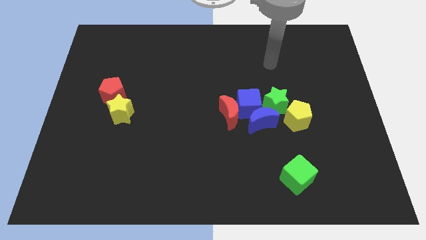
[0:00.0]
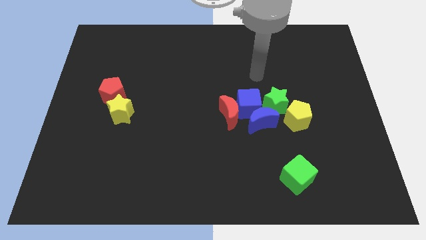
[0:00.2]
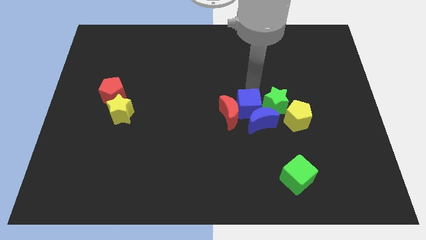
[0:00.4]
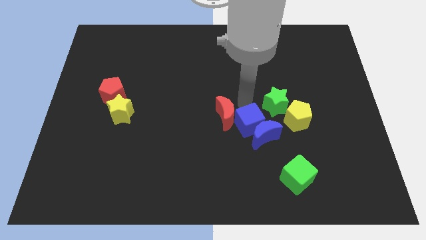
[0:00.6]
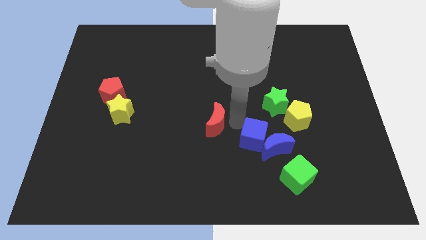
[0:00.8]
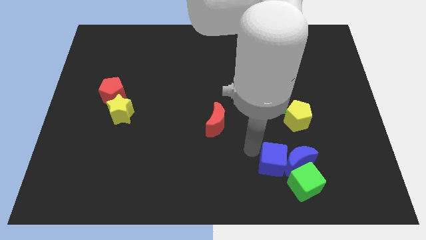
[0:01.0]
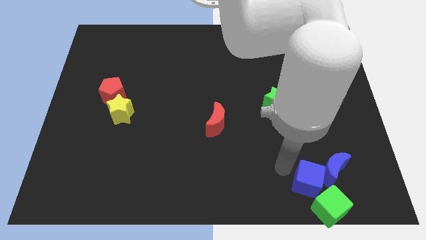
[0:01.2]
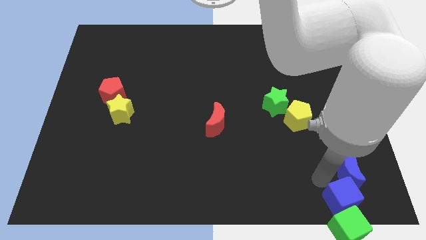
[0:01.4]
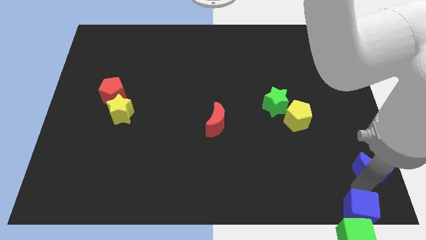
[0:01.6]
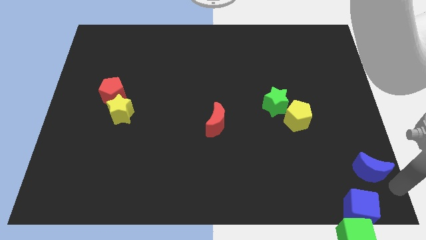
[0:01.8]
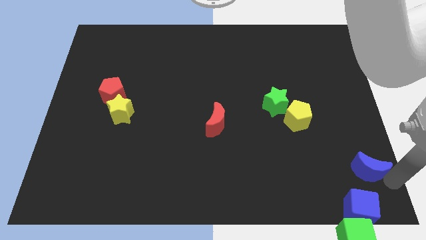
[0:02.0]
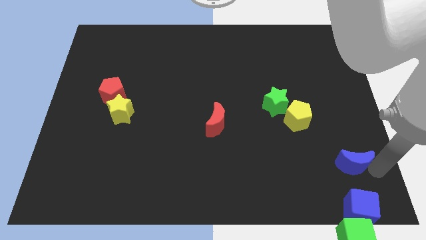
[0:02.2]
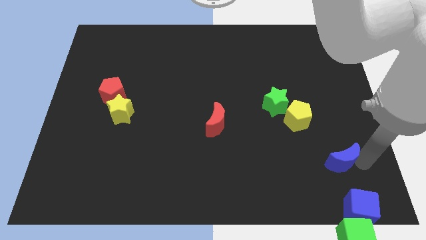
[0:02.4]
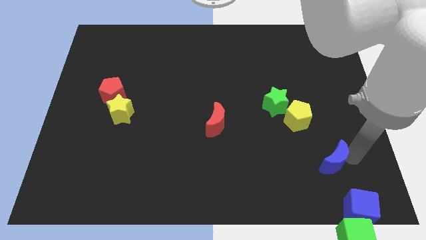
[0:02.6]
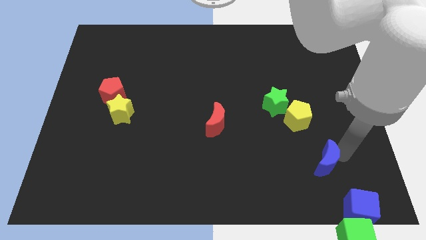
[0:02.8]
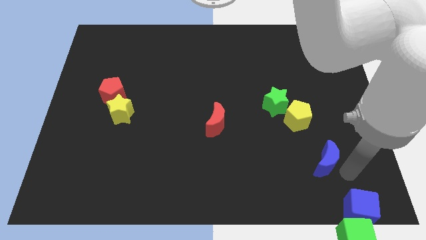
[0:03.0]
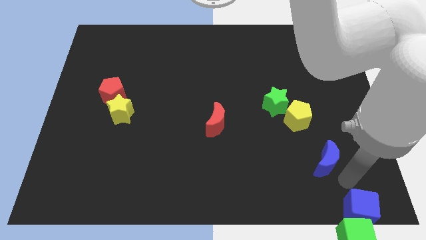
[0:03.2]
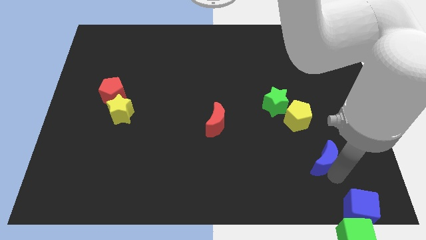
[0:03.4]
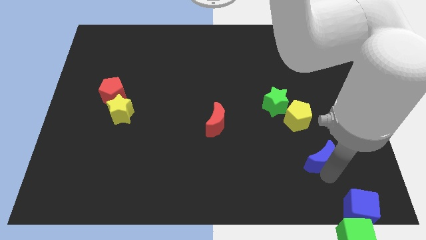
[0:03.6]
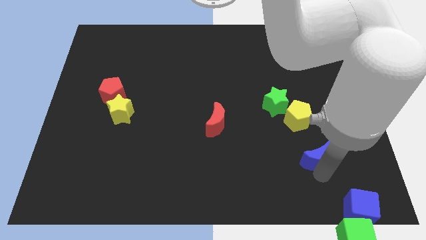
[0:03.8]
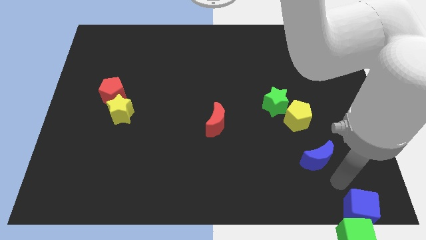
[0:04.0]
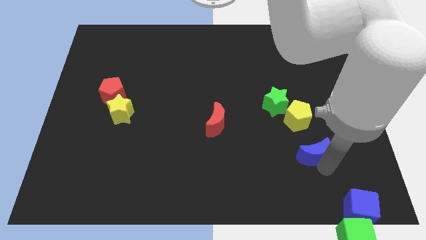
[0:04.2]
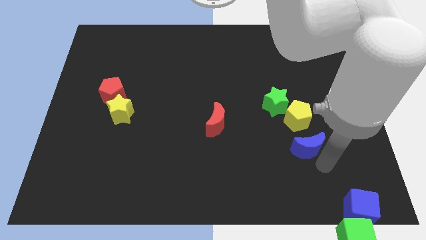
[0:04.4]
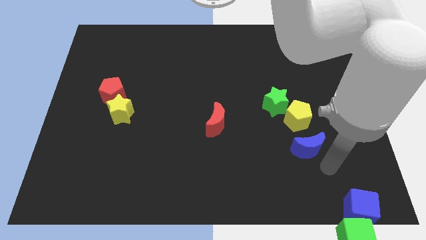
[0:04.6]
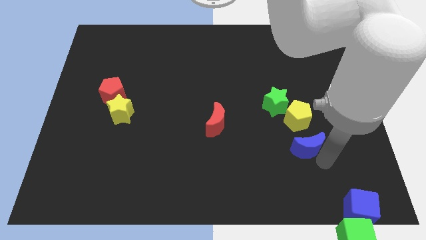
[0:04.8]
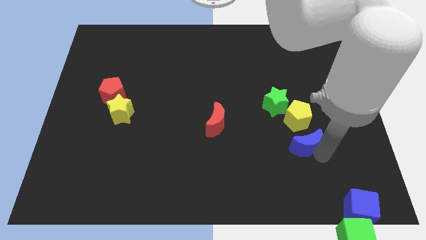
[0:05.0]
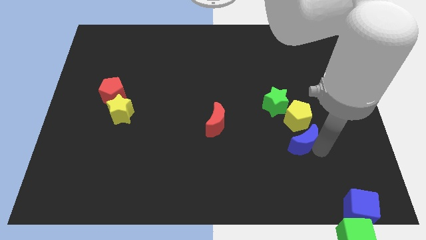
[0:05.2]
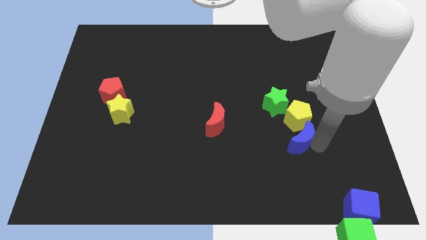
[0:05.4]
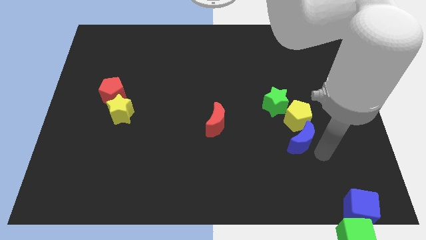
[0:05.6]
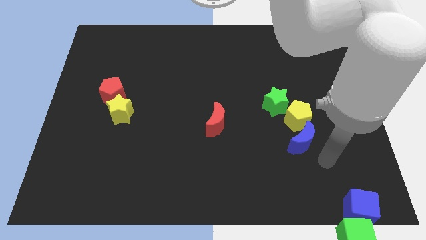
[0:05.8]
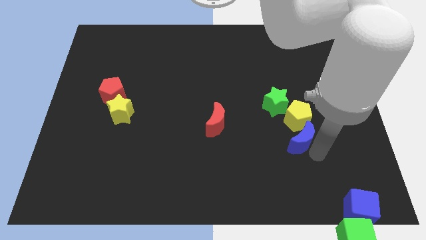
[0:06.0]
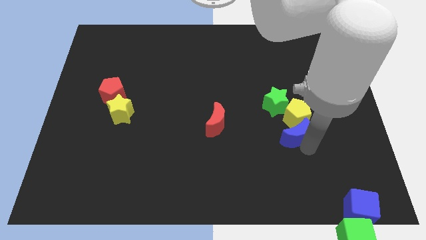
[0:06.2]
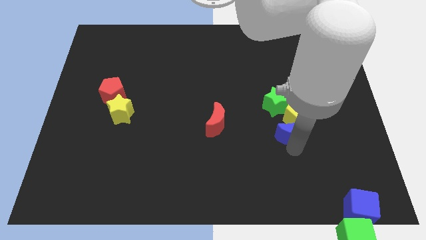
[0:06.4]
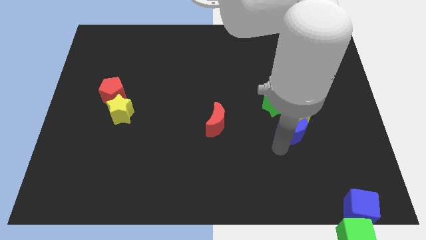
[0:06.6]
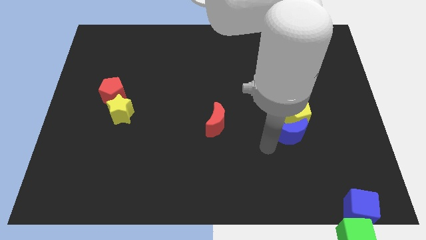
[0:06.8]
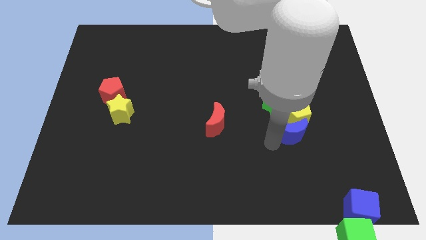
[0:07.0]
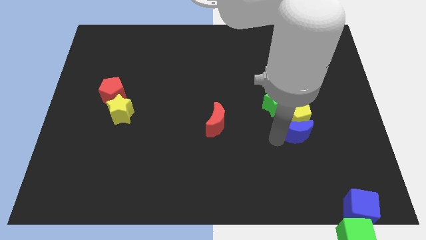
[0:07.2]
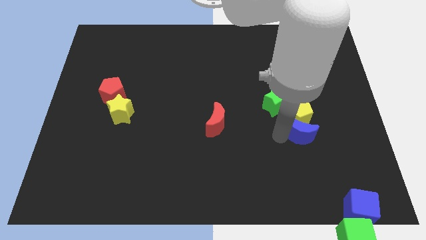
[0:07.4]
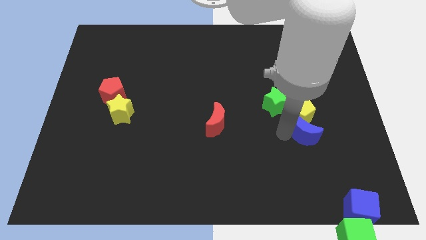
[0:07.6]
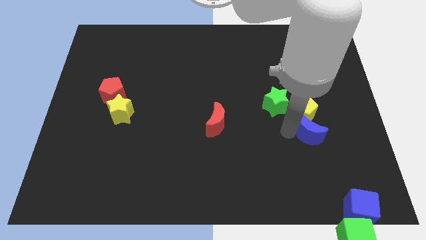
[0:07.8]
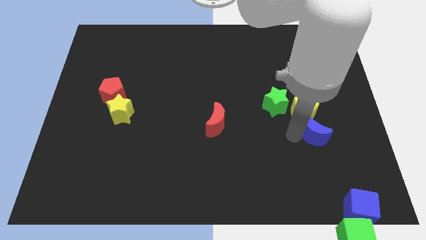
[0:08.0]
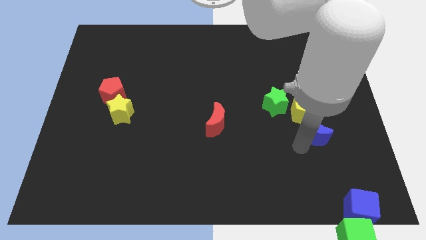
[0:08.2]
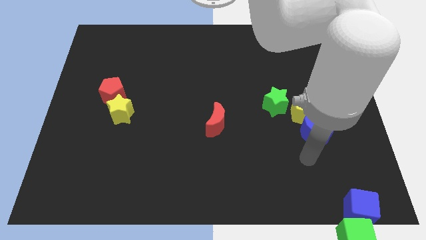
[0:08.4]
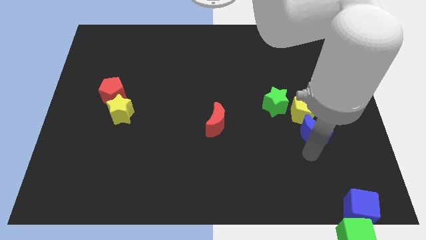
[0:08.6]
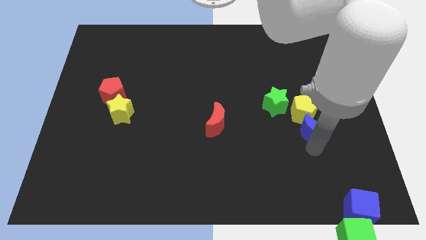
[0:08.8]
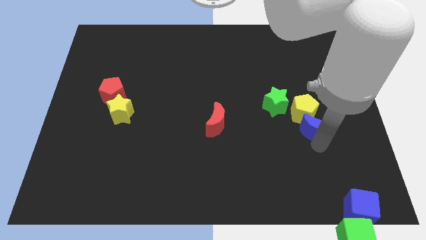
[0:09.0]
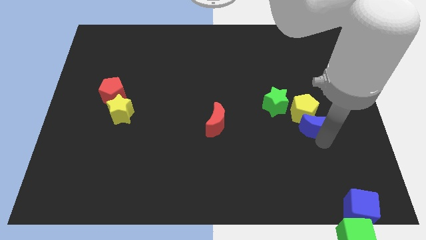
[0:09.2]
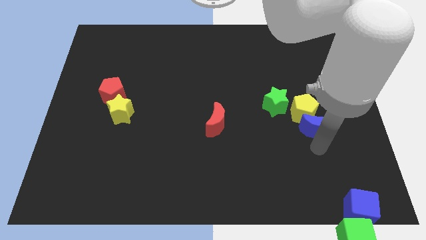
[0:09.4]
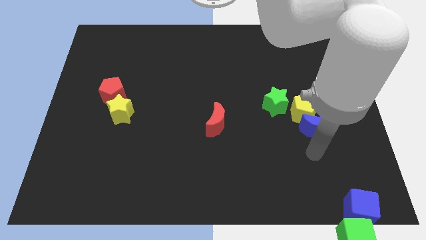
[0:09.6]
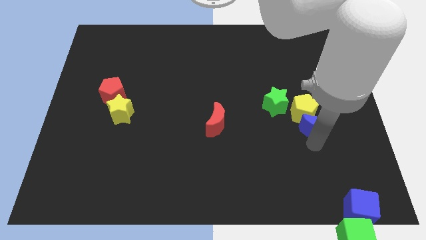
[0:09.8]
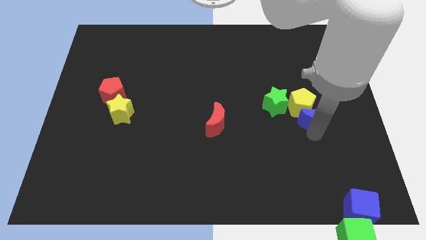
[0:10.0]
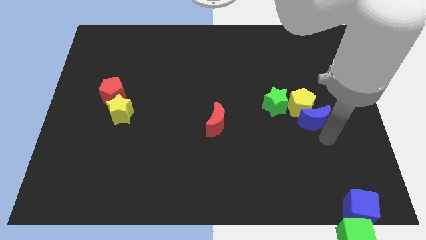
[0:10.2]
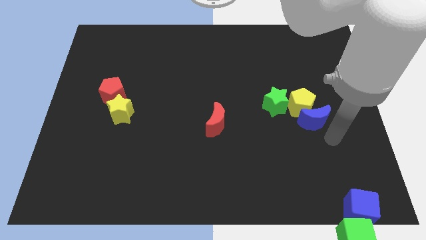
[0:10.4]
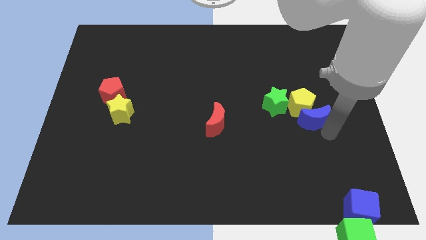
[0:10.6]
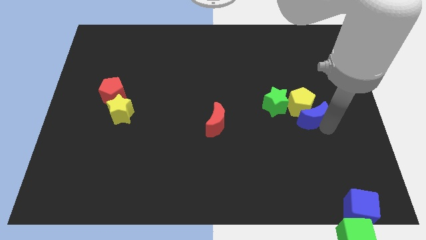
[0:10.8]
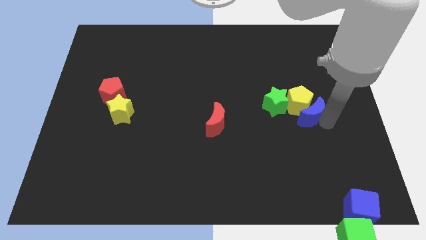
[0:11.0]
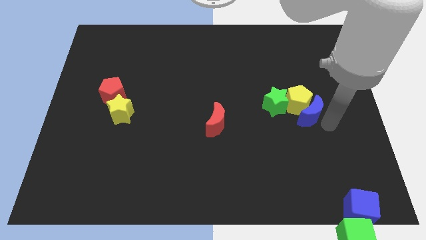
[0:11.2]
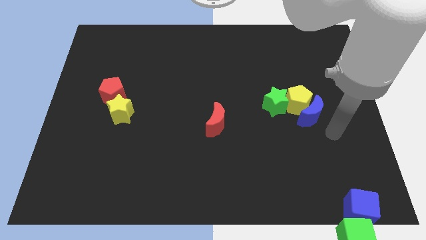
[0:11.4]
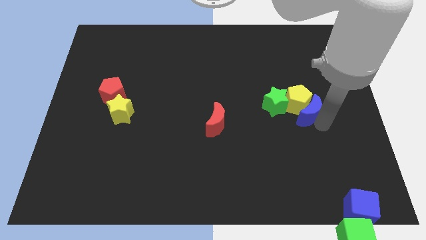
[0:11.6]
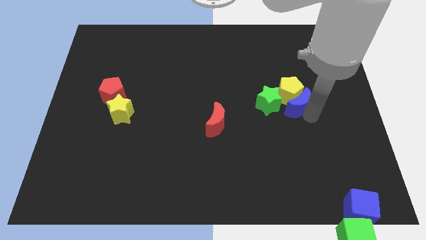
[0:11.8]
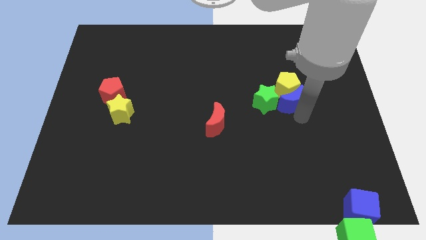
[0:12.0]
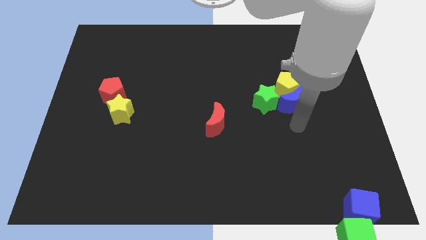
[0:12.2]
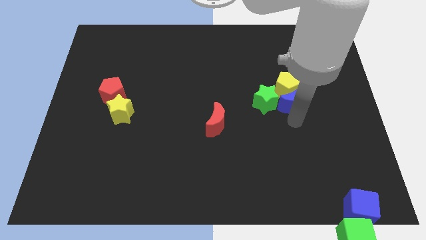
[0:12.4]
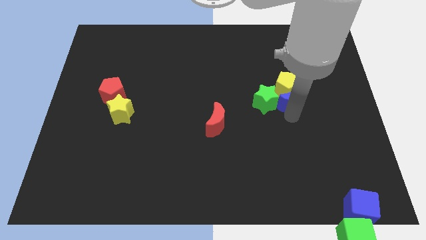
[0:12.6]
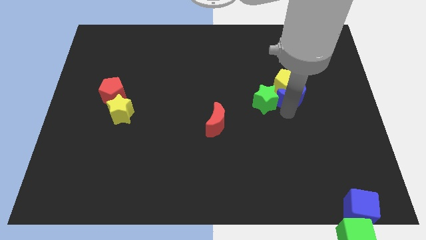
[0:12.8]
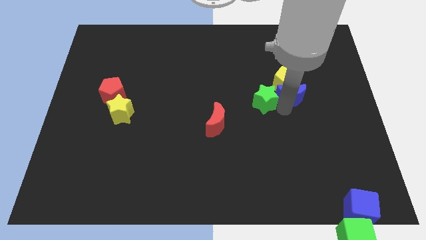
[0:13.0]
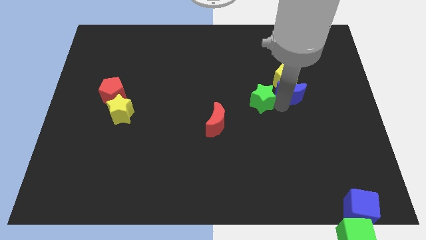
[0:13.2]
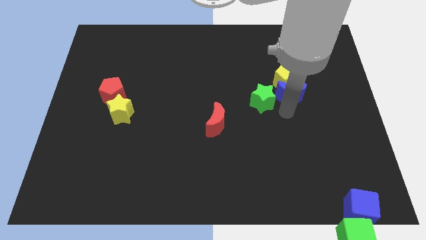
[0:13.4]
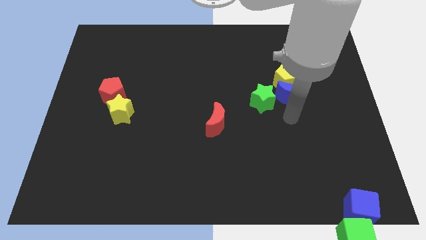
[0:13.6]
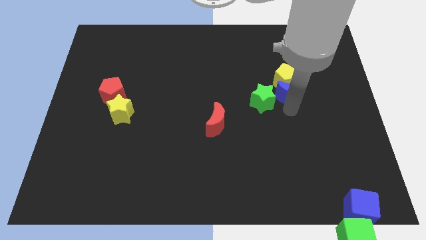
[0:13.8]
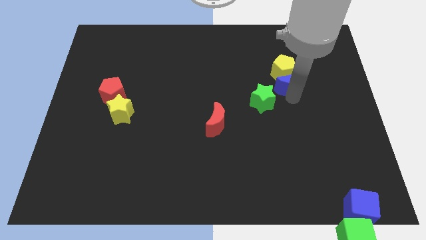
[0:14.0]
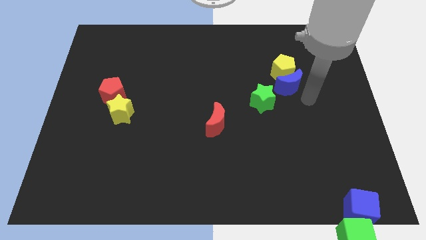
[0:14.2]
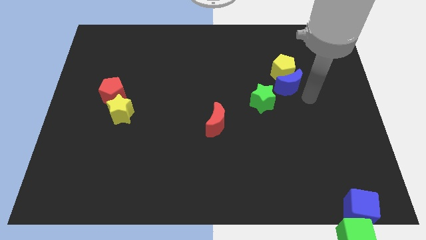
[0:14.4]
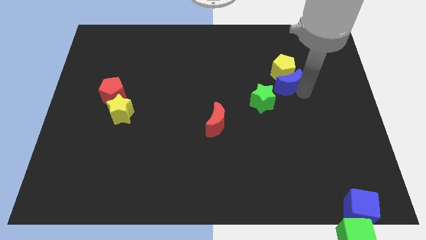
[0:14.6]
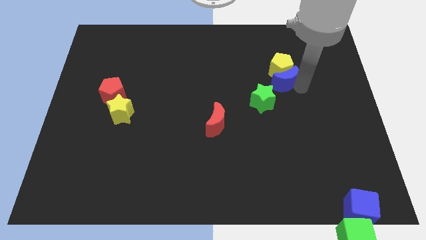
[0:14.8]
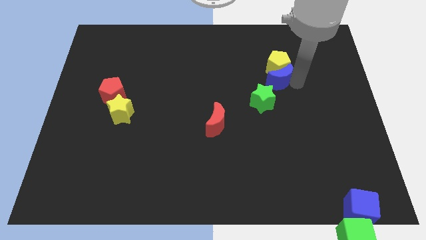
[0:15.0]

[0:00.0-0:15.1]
move the blue moon to the top of the green star

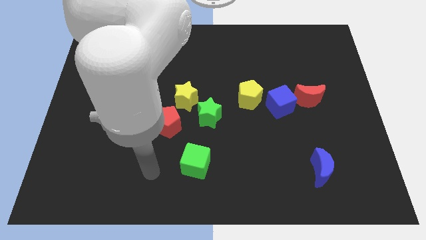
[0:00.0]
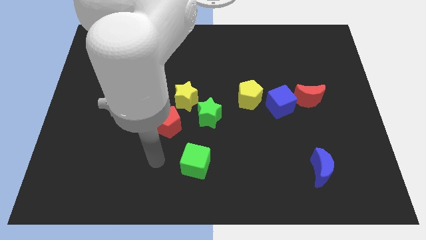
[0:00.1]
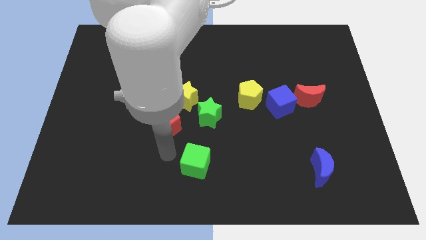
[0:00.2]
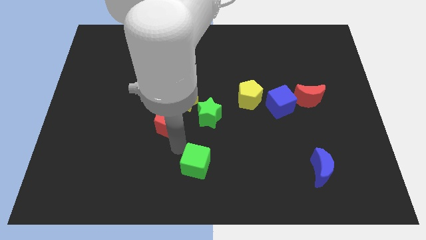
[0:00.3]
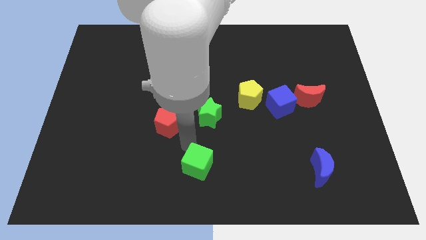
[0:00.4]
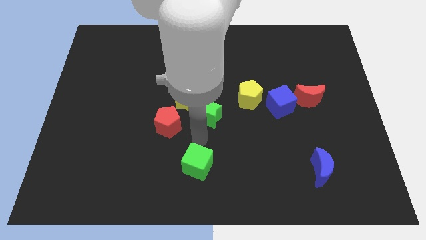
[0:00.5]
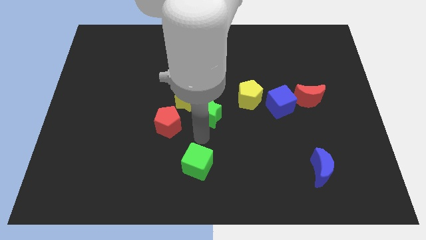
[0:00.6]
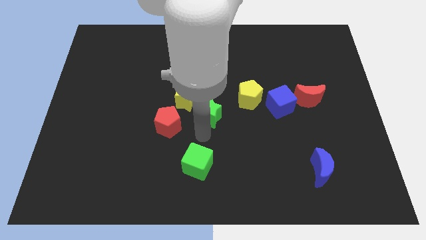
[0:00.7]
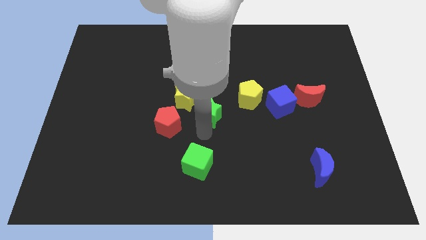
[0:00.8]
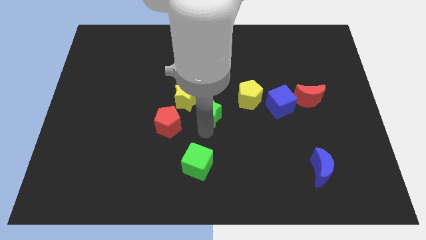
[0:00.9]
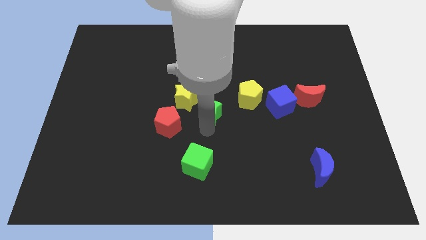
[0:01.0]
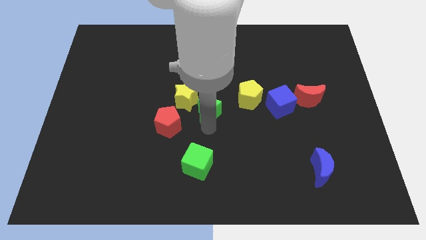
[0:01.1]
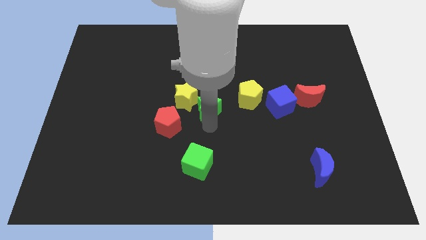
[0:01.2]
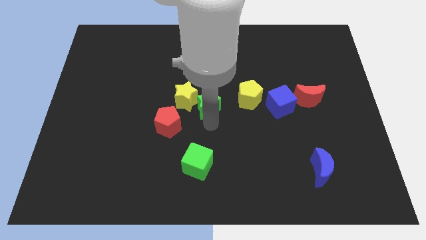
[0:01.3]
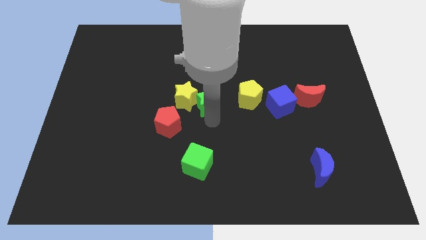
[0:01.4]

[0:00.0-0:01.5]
put the green star to the top right side of the yellow star
